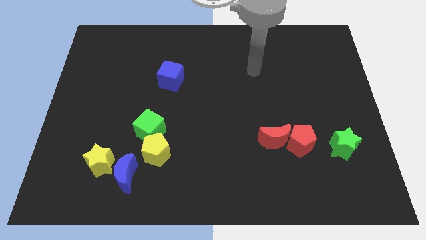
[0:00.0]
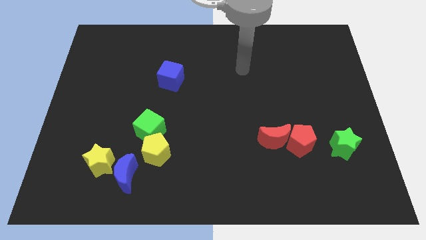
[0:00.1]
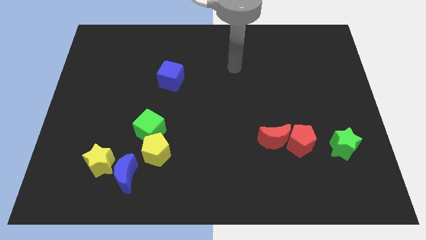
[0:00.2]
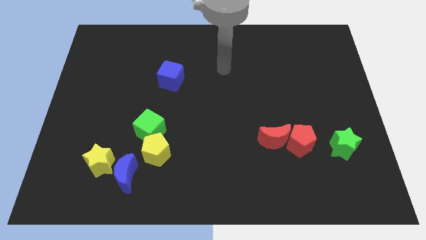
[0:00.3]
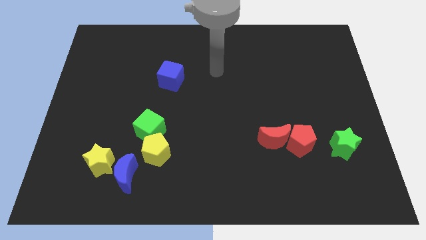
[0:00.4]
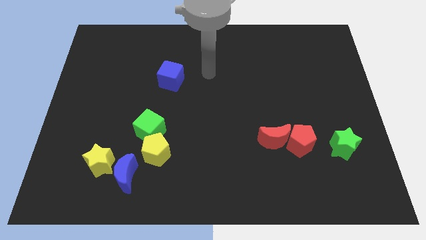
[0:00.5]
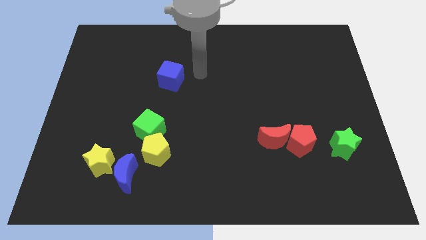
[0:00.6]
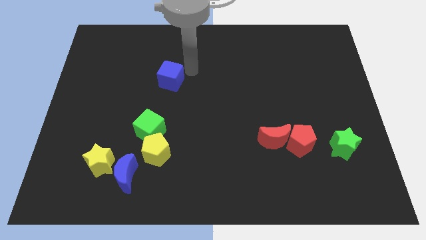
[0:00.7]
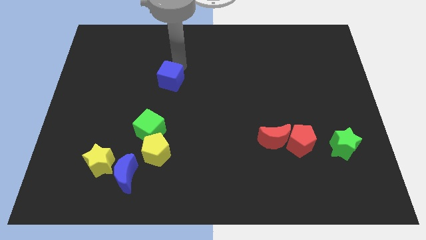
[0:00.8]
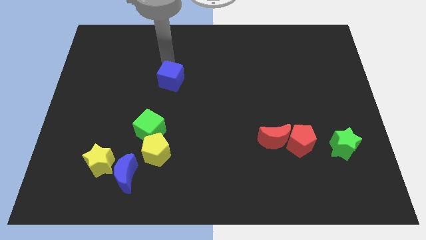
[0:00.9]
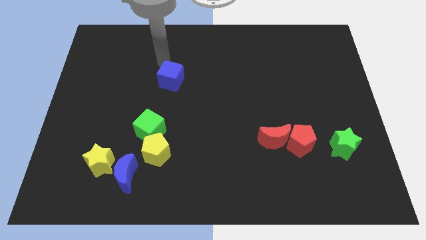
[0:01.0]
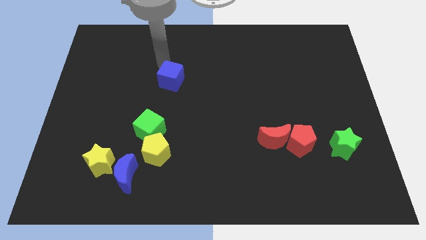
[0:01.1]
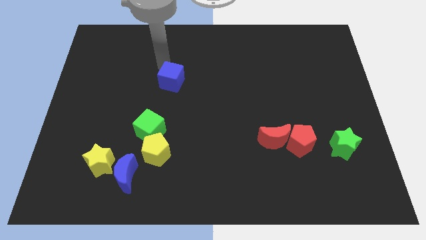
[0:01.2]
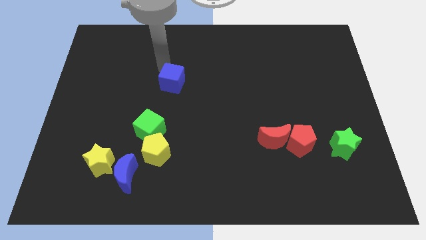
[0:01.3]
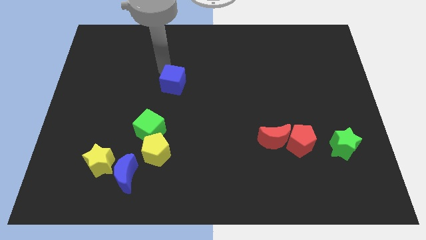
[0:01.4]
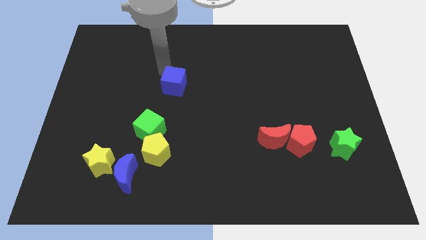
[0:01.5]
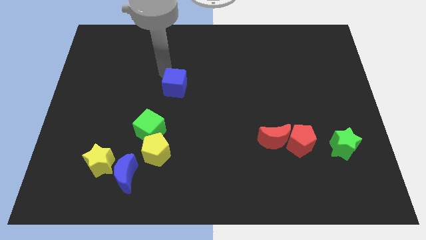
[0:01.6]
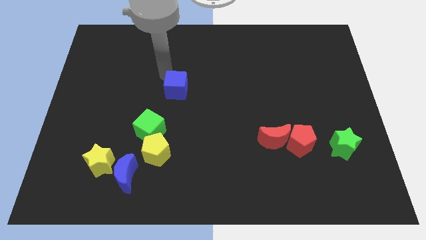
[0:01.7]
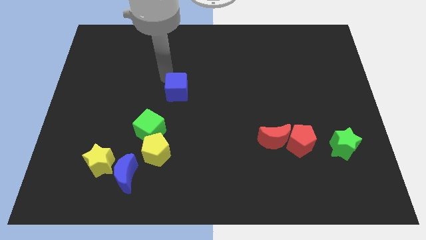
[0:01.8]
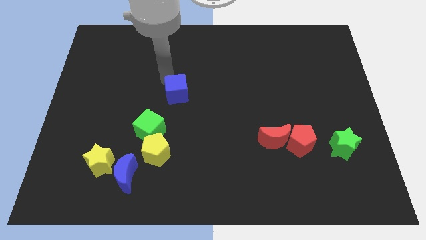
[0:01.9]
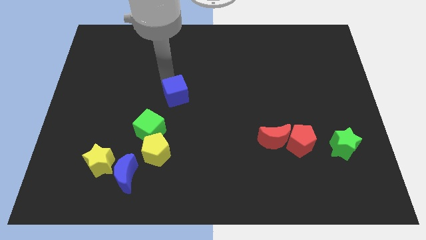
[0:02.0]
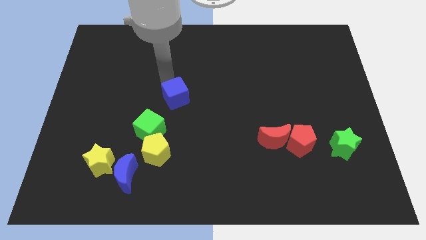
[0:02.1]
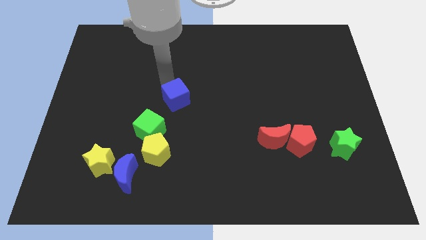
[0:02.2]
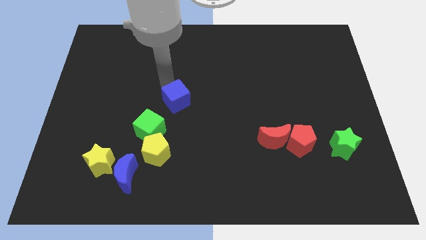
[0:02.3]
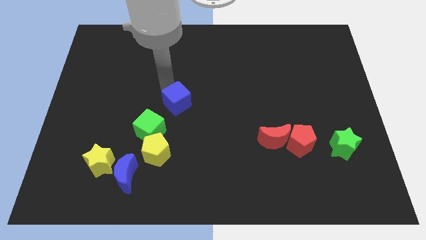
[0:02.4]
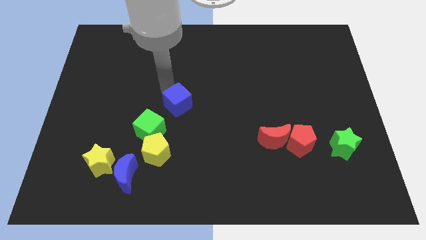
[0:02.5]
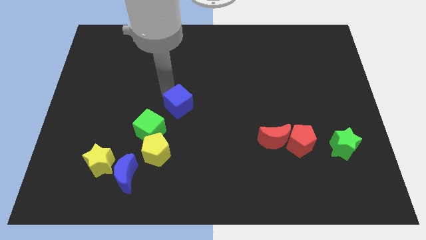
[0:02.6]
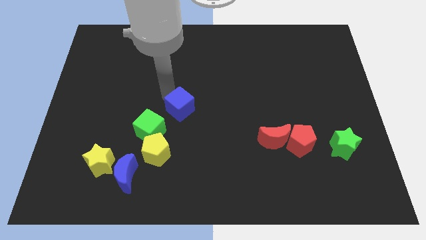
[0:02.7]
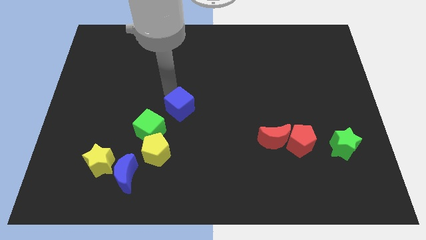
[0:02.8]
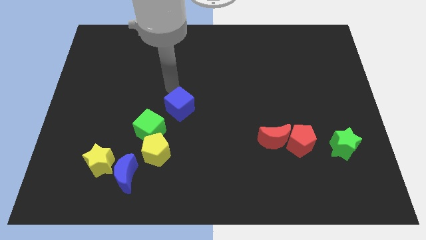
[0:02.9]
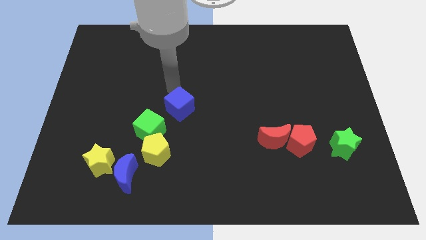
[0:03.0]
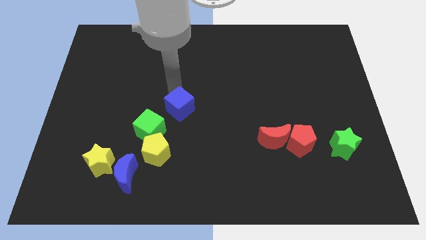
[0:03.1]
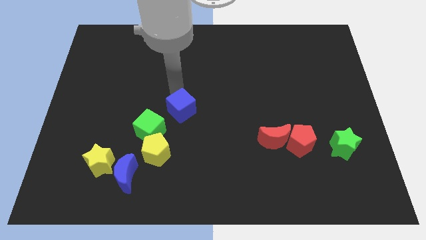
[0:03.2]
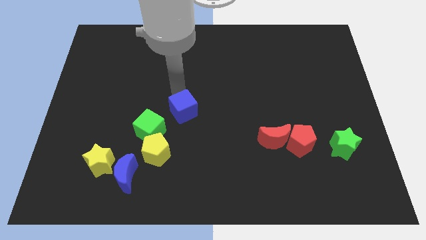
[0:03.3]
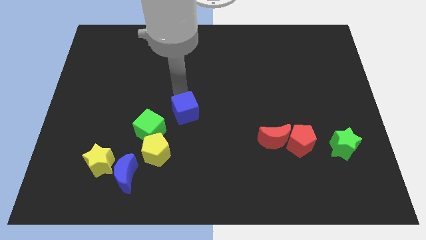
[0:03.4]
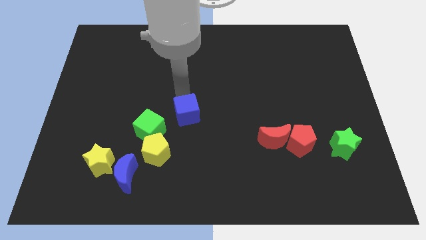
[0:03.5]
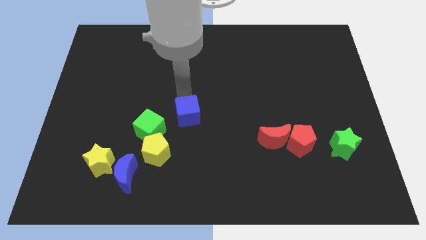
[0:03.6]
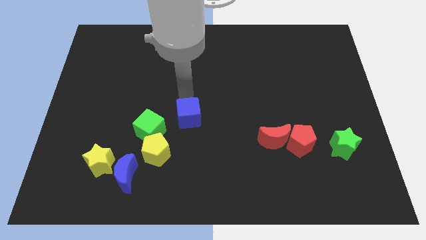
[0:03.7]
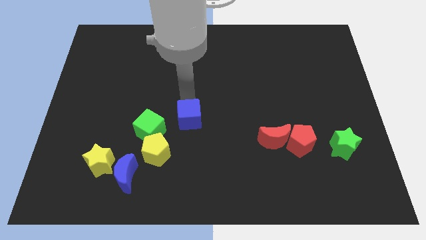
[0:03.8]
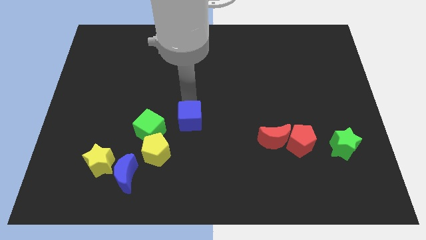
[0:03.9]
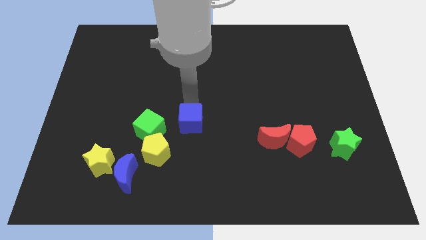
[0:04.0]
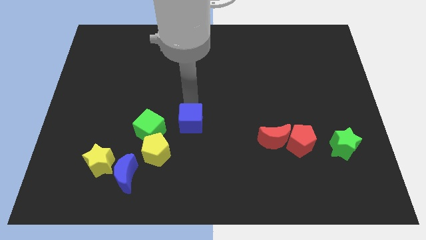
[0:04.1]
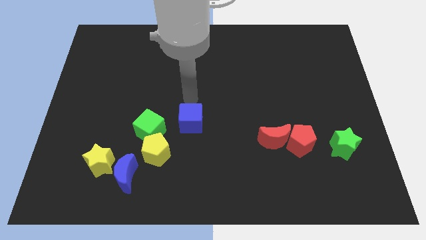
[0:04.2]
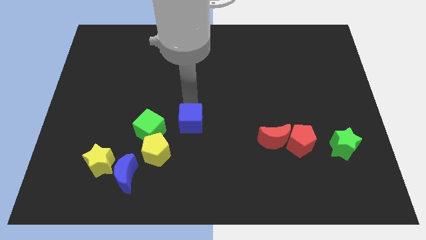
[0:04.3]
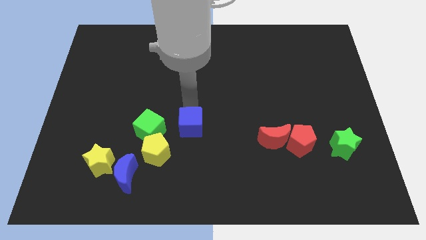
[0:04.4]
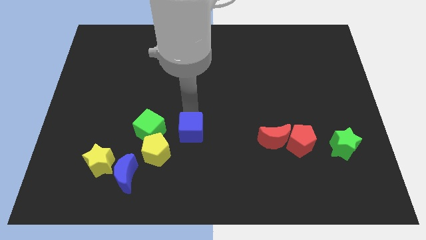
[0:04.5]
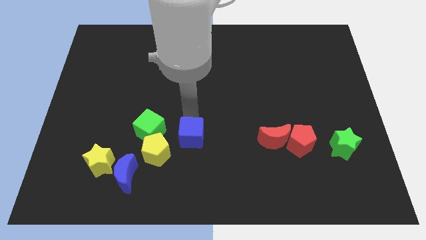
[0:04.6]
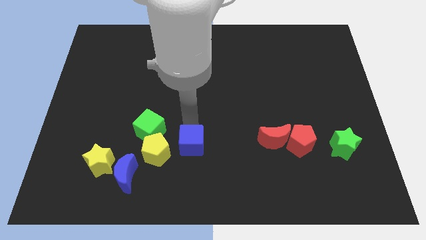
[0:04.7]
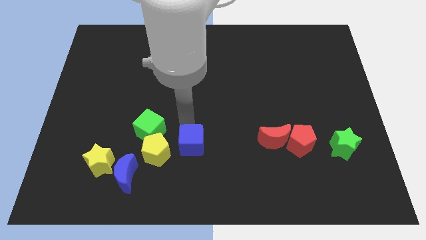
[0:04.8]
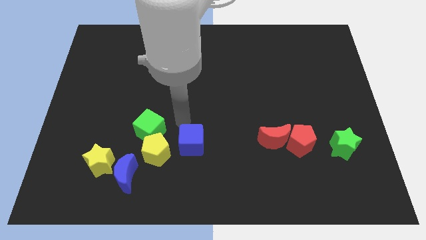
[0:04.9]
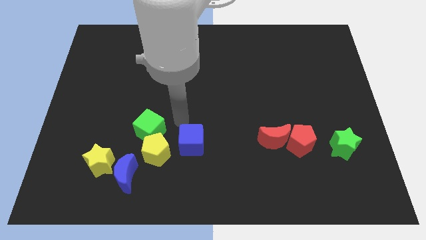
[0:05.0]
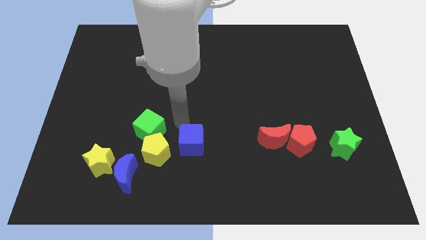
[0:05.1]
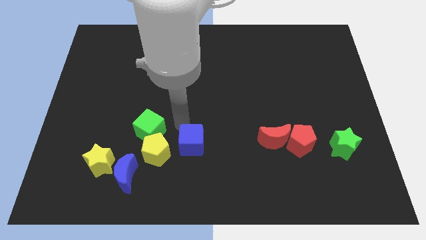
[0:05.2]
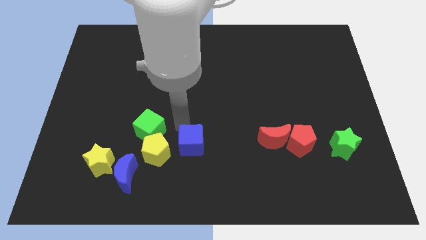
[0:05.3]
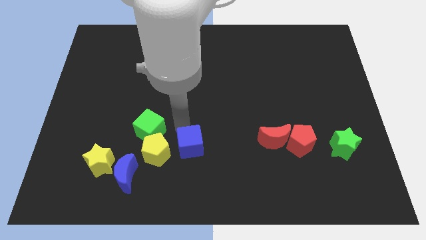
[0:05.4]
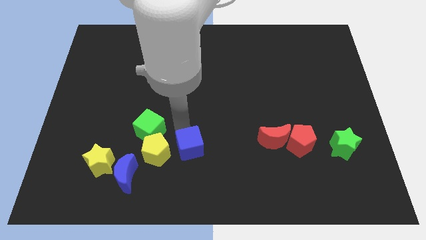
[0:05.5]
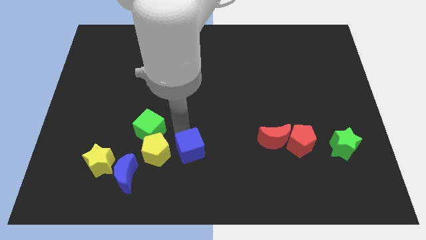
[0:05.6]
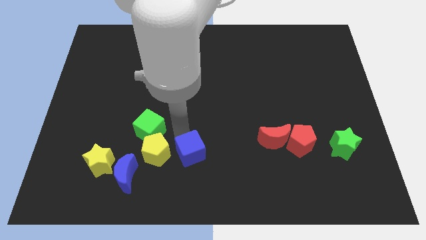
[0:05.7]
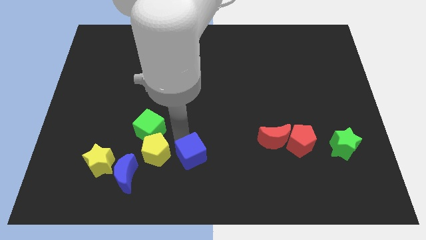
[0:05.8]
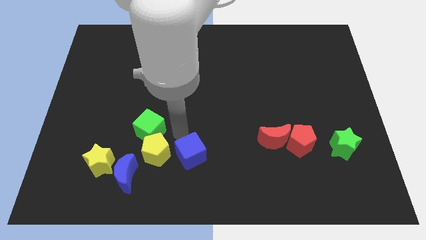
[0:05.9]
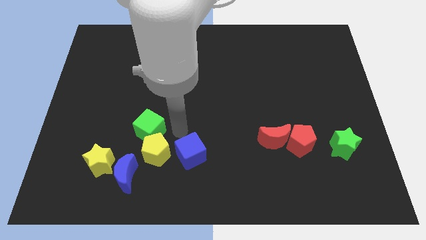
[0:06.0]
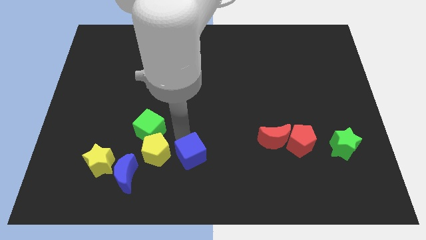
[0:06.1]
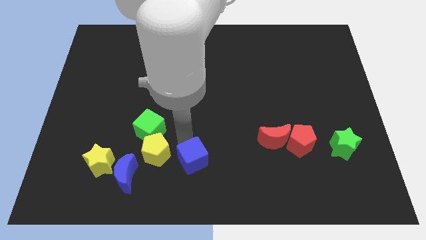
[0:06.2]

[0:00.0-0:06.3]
move the blue cube to the bottom
